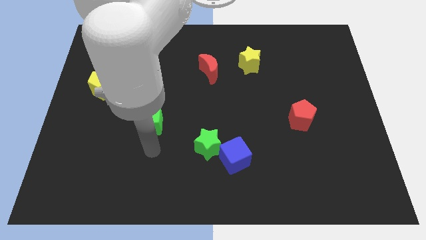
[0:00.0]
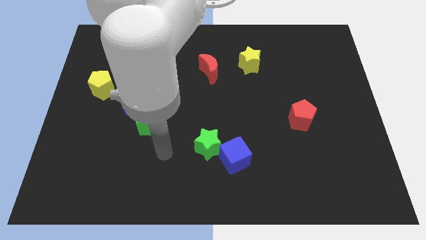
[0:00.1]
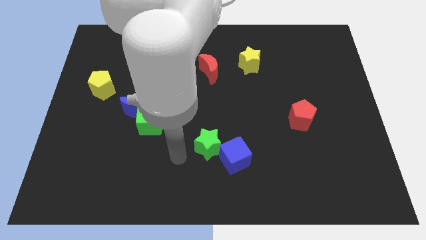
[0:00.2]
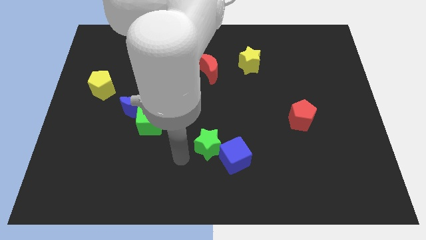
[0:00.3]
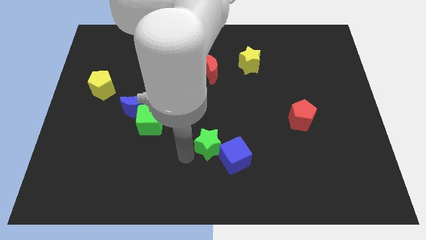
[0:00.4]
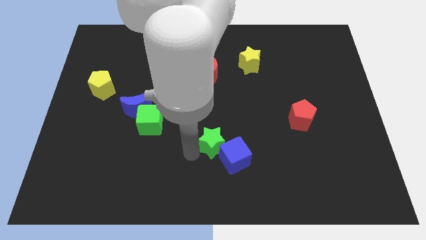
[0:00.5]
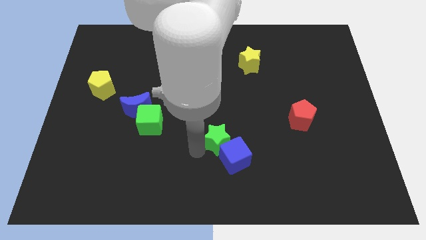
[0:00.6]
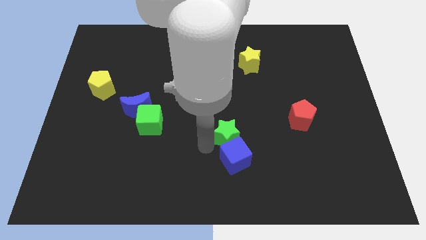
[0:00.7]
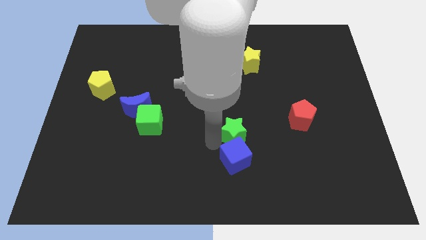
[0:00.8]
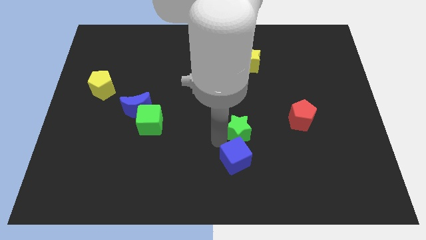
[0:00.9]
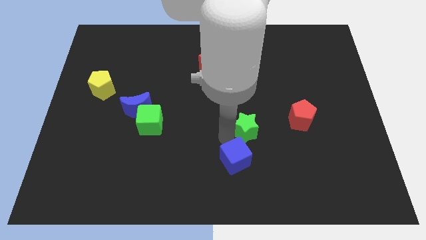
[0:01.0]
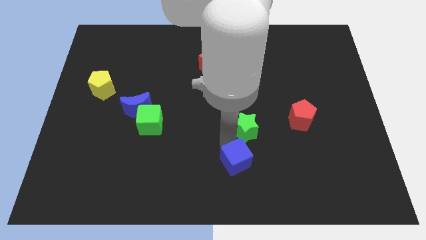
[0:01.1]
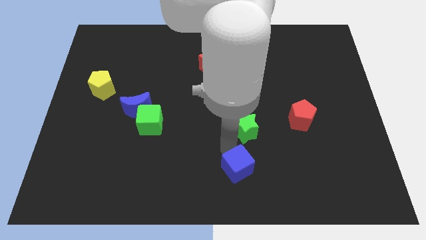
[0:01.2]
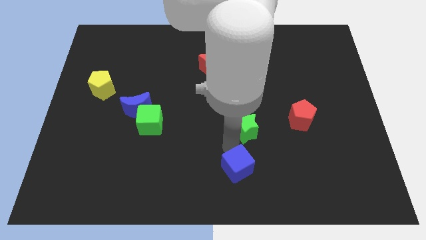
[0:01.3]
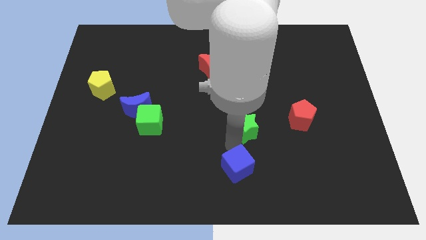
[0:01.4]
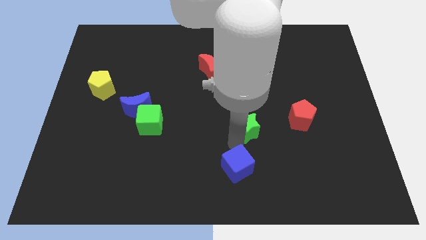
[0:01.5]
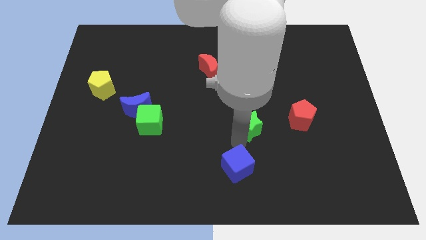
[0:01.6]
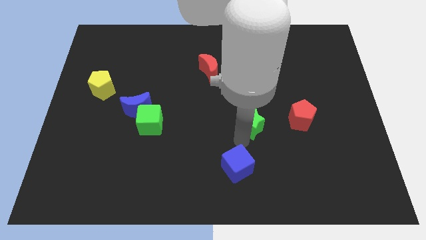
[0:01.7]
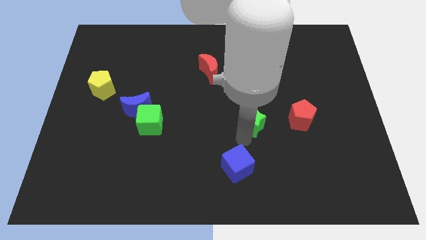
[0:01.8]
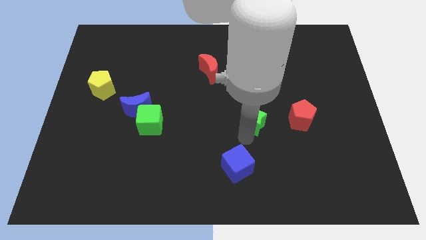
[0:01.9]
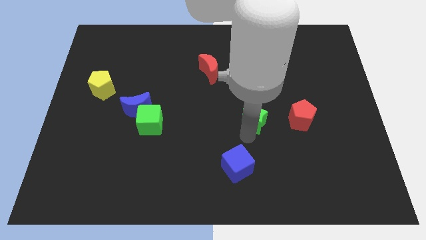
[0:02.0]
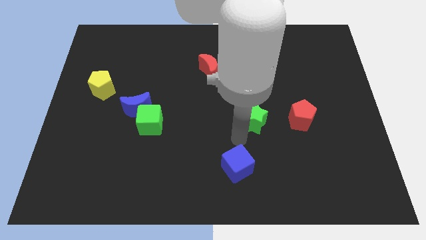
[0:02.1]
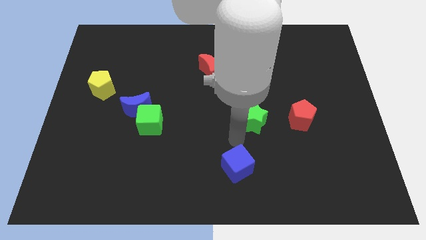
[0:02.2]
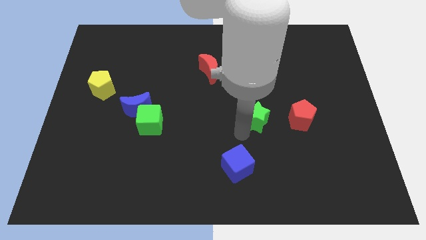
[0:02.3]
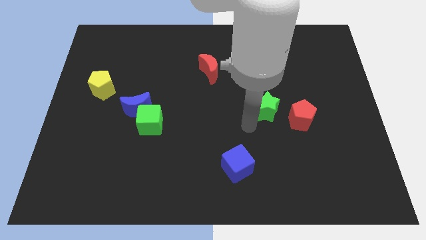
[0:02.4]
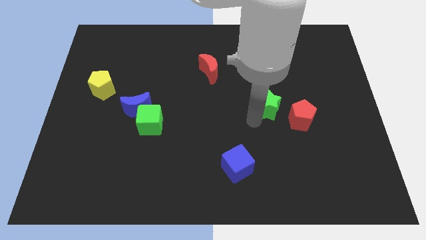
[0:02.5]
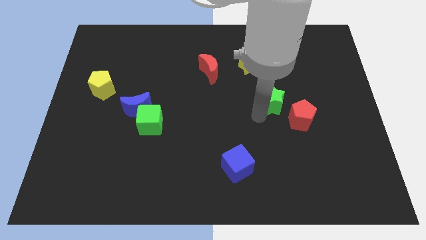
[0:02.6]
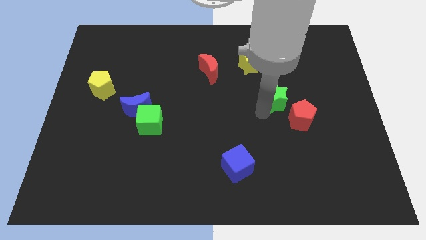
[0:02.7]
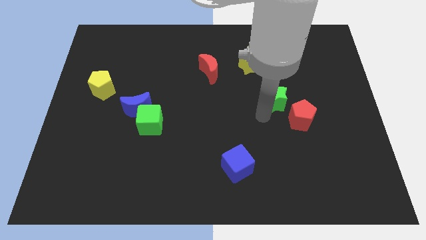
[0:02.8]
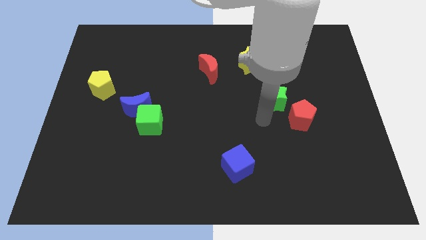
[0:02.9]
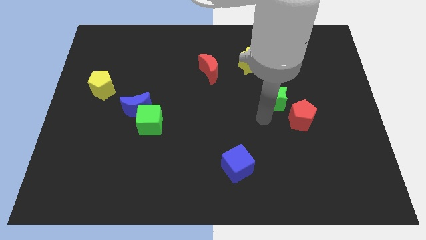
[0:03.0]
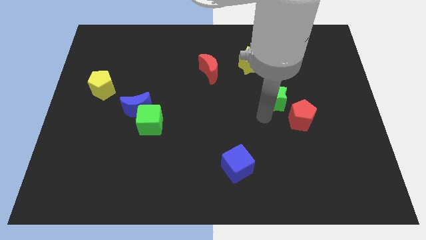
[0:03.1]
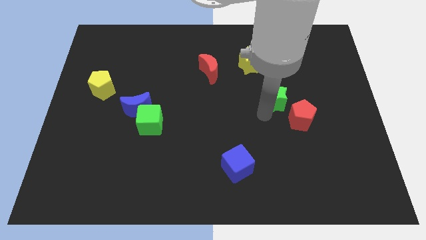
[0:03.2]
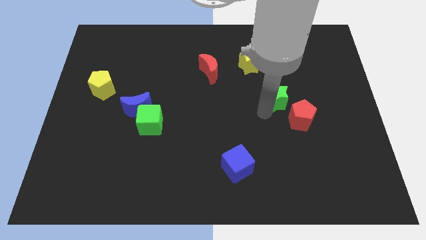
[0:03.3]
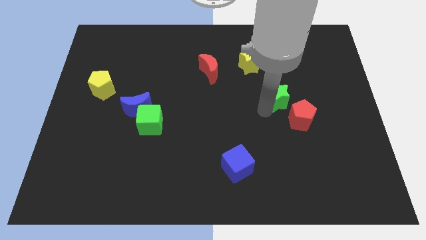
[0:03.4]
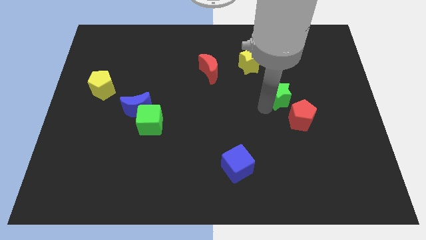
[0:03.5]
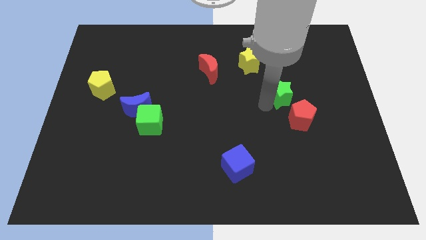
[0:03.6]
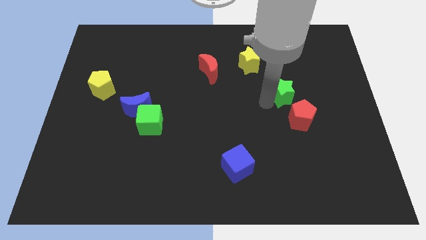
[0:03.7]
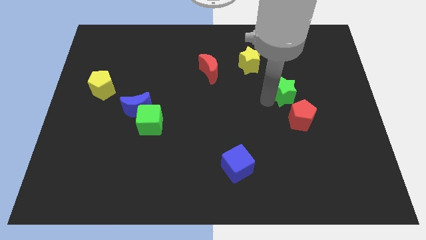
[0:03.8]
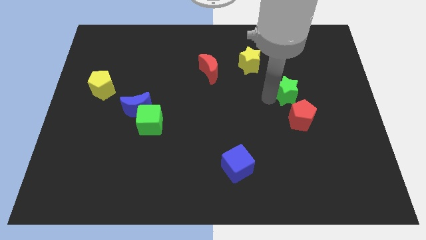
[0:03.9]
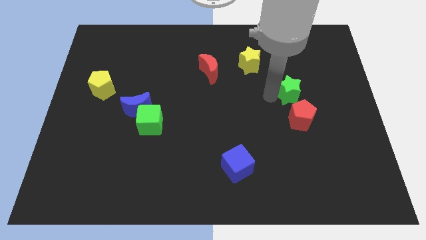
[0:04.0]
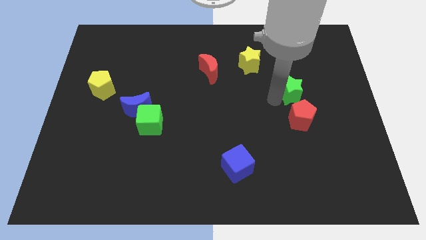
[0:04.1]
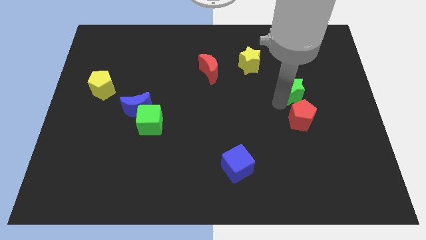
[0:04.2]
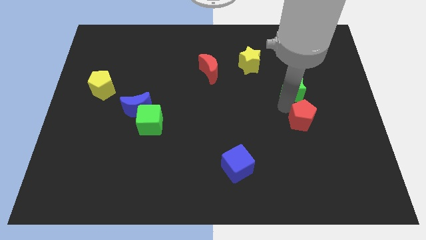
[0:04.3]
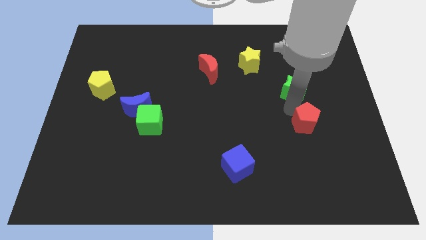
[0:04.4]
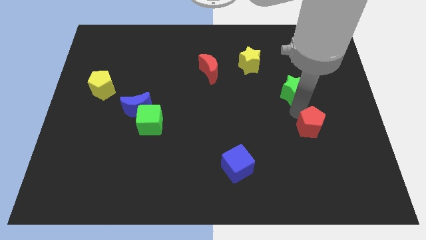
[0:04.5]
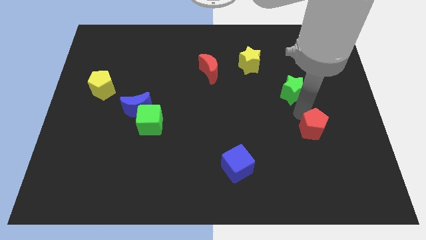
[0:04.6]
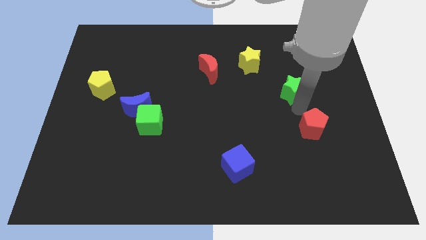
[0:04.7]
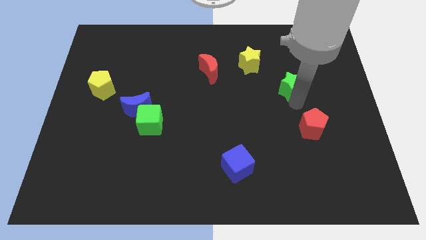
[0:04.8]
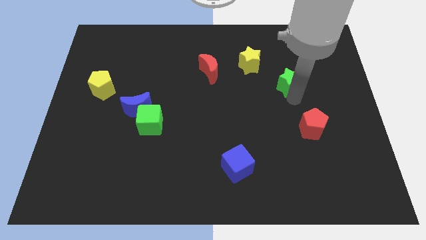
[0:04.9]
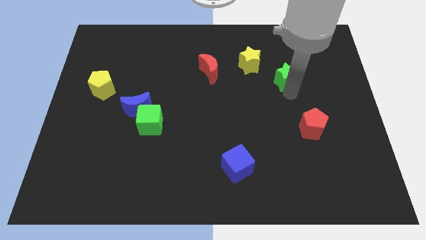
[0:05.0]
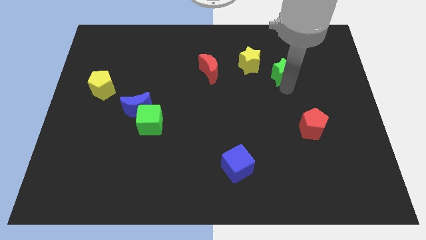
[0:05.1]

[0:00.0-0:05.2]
put the green star right of the yellow star
